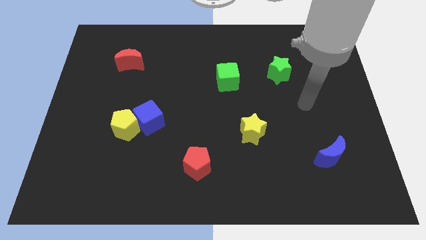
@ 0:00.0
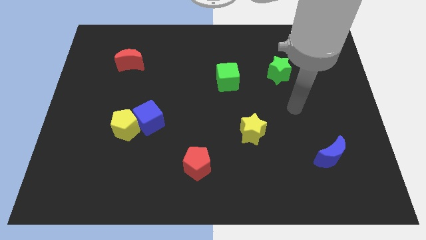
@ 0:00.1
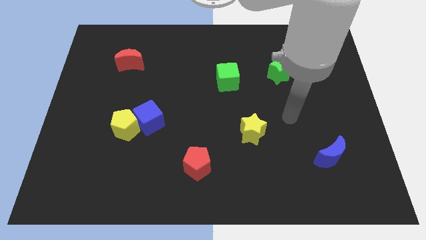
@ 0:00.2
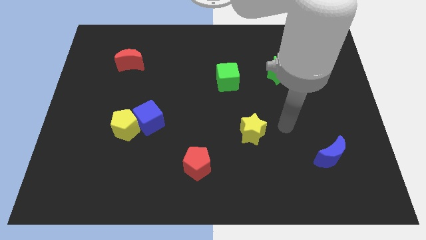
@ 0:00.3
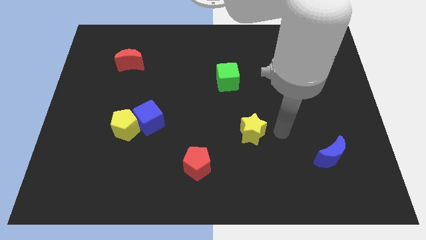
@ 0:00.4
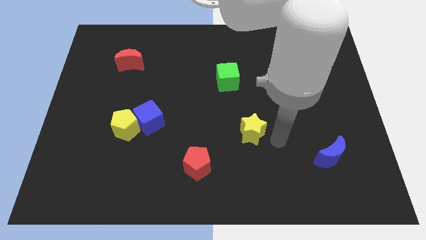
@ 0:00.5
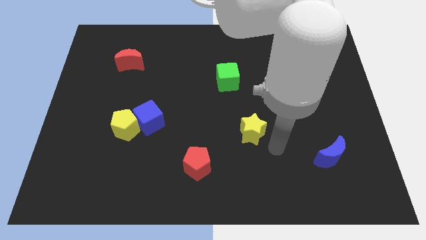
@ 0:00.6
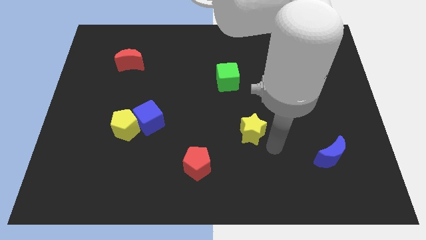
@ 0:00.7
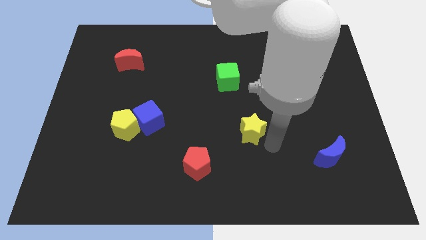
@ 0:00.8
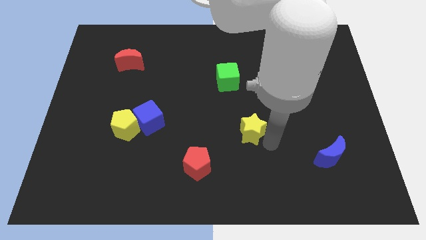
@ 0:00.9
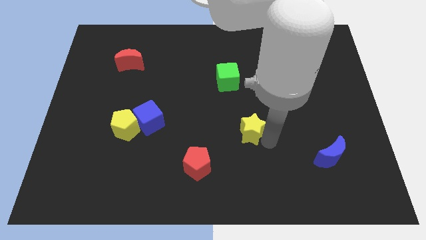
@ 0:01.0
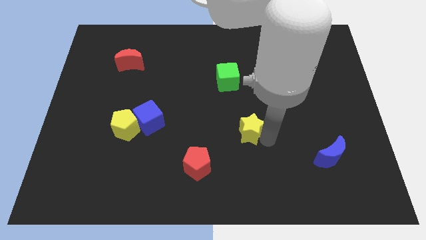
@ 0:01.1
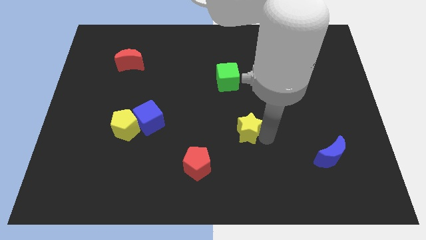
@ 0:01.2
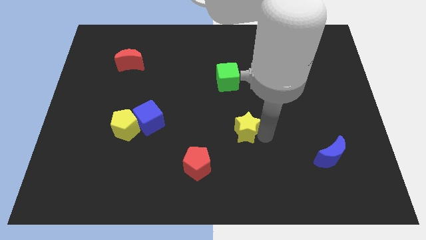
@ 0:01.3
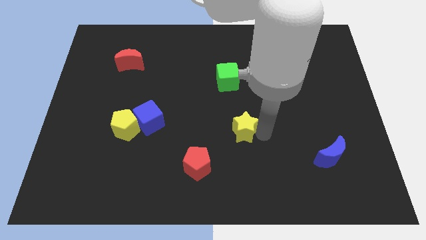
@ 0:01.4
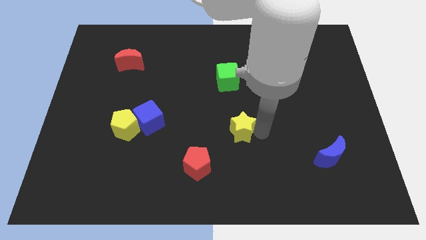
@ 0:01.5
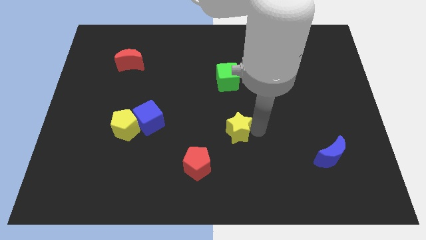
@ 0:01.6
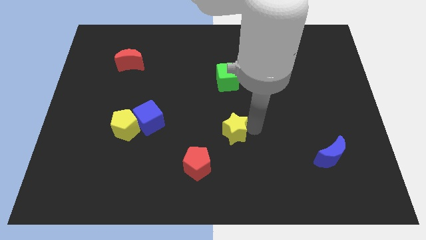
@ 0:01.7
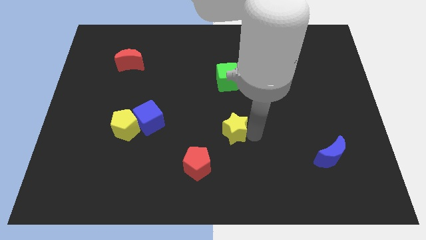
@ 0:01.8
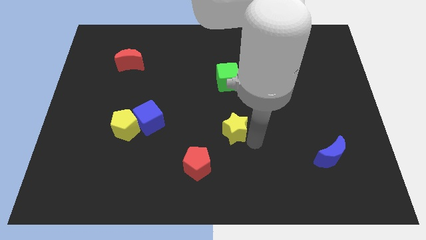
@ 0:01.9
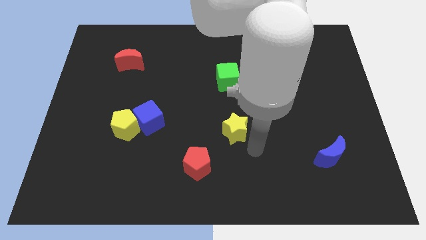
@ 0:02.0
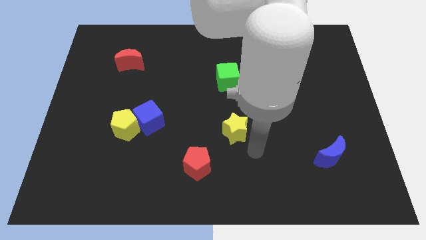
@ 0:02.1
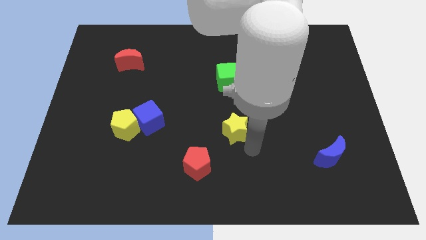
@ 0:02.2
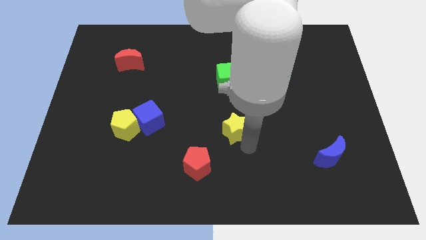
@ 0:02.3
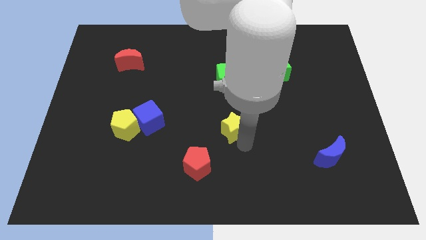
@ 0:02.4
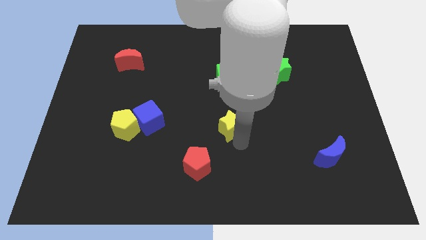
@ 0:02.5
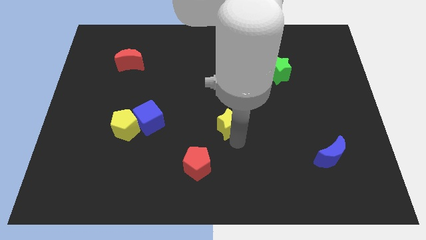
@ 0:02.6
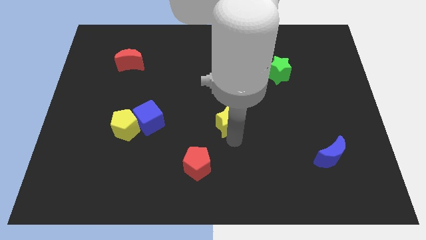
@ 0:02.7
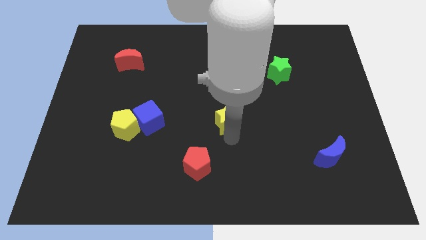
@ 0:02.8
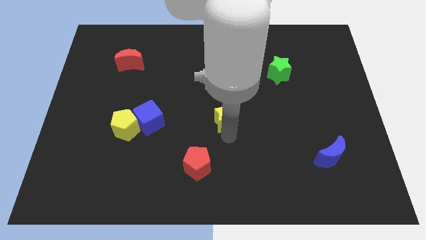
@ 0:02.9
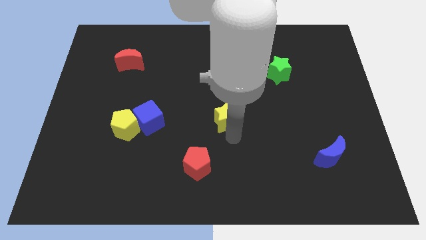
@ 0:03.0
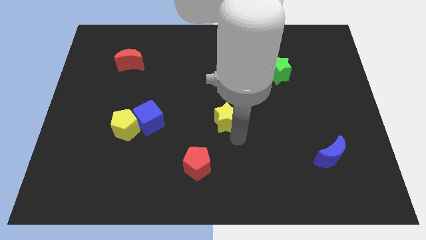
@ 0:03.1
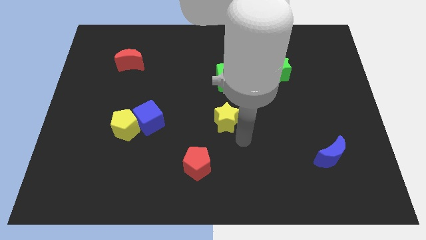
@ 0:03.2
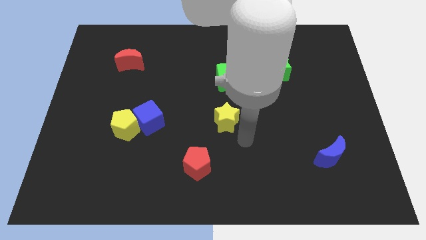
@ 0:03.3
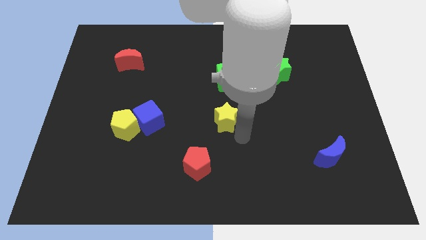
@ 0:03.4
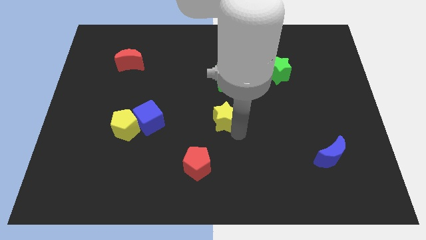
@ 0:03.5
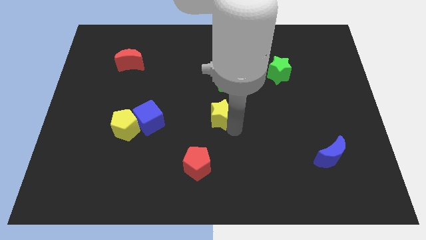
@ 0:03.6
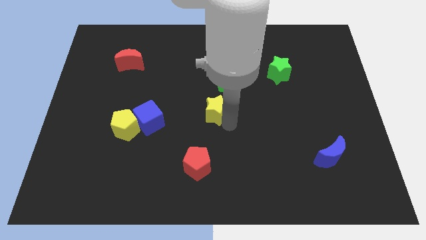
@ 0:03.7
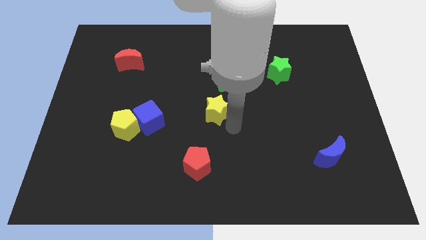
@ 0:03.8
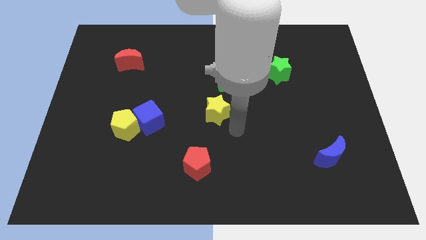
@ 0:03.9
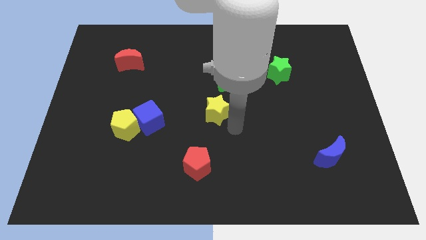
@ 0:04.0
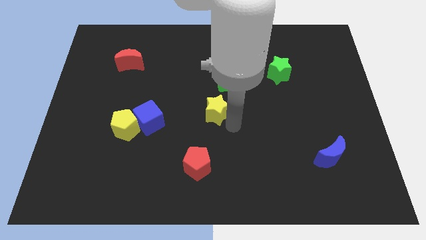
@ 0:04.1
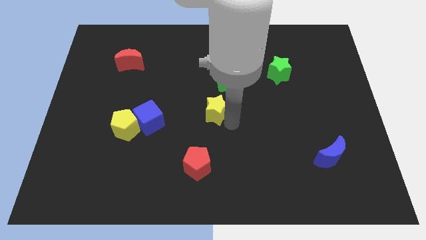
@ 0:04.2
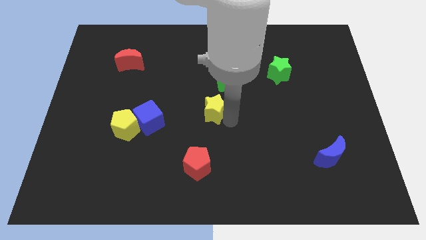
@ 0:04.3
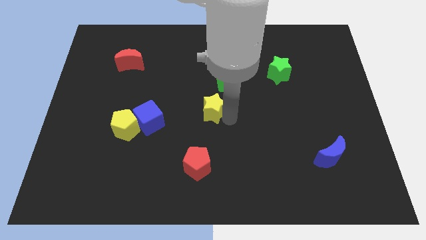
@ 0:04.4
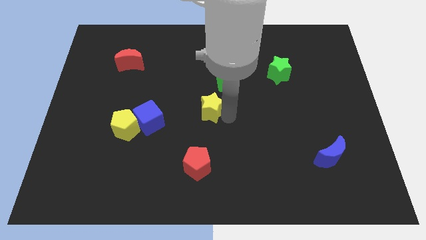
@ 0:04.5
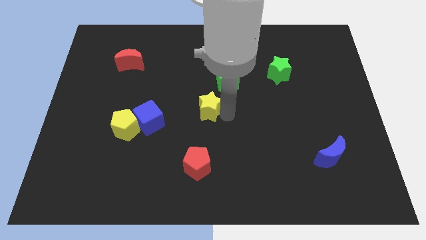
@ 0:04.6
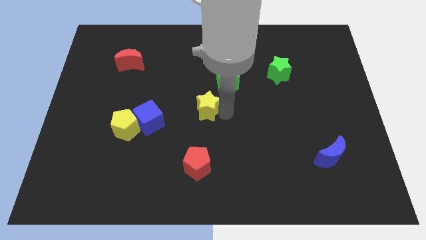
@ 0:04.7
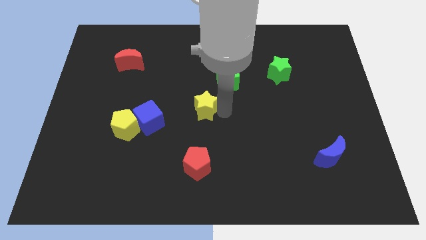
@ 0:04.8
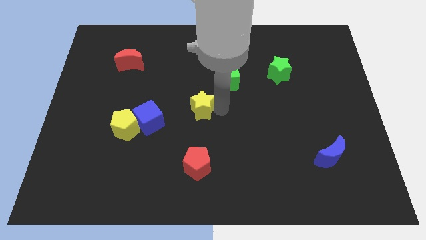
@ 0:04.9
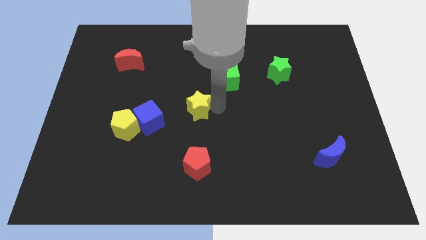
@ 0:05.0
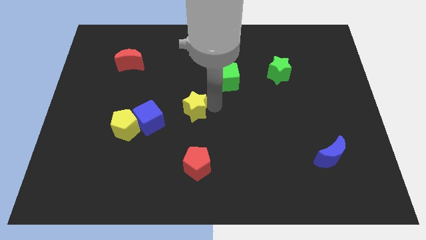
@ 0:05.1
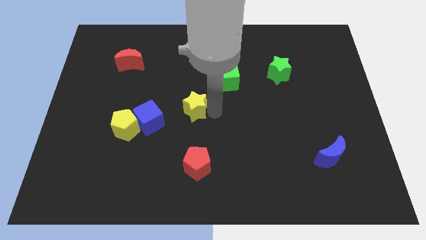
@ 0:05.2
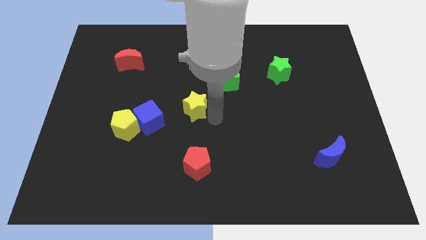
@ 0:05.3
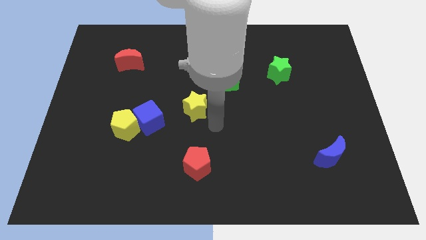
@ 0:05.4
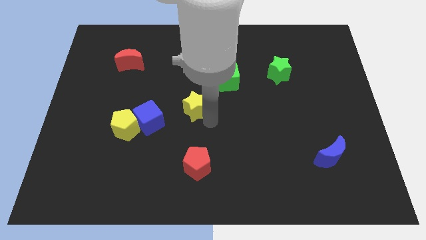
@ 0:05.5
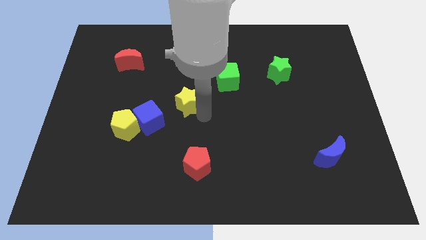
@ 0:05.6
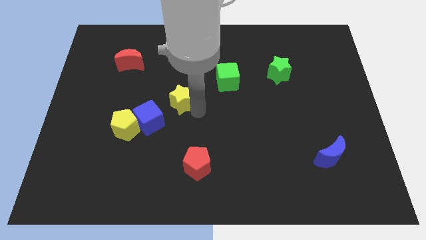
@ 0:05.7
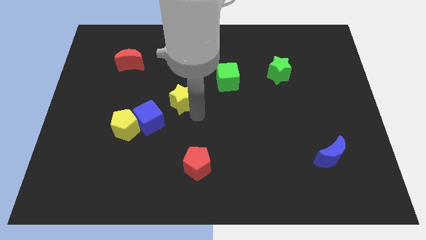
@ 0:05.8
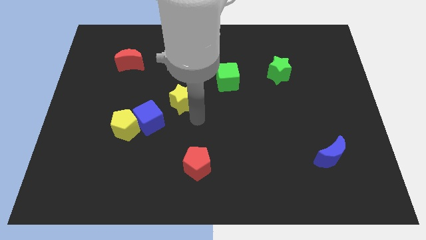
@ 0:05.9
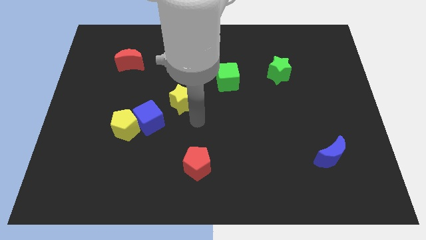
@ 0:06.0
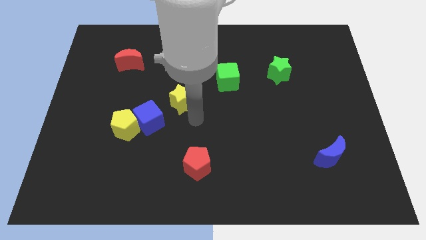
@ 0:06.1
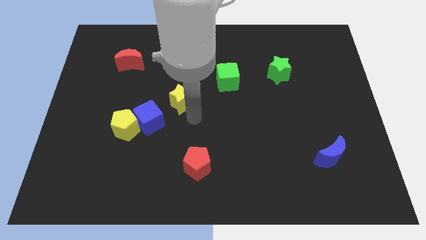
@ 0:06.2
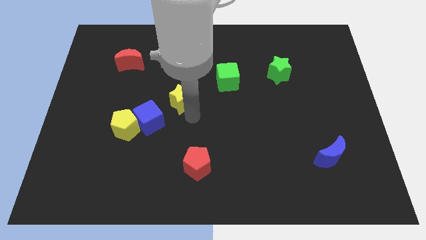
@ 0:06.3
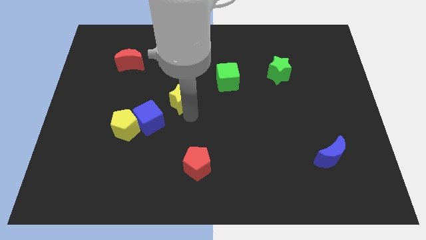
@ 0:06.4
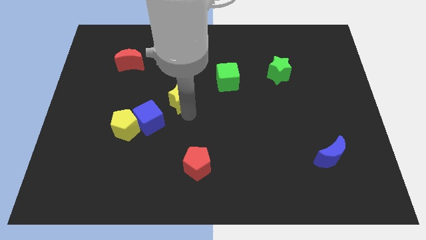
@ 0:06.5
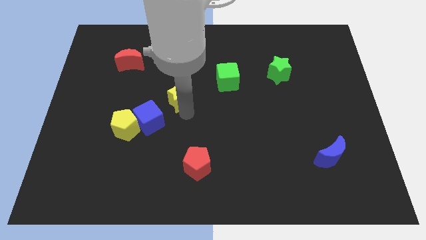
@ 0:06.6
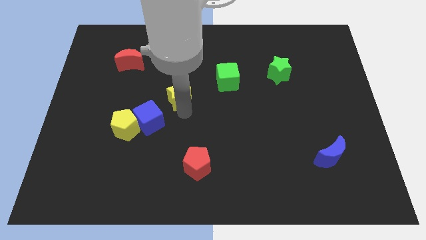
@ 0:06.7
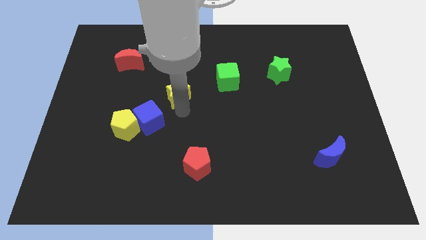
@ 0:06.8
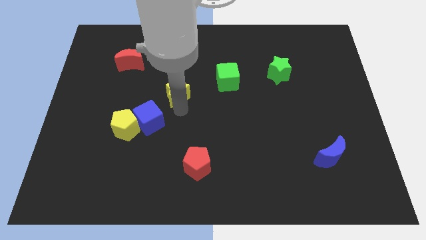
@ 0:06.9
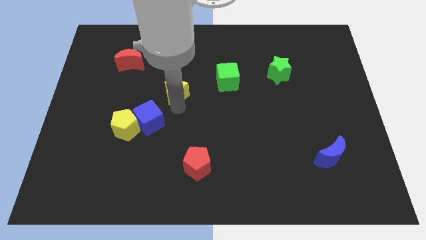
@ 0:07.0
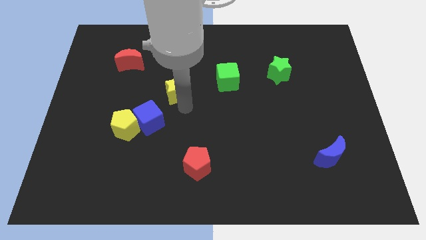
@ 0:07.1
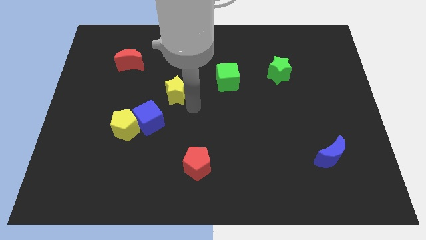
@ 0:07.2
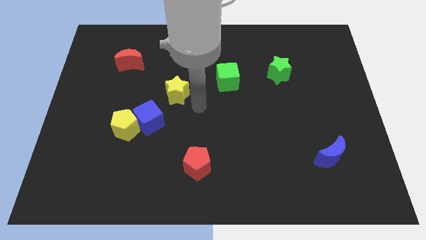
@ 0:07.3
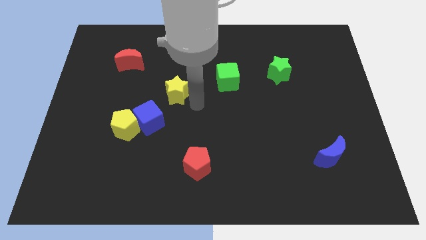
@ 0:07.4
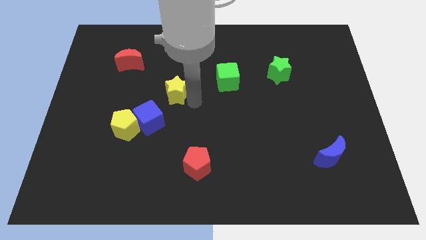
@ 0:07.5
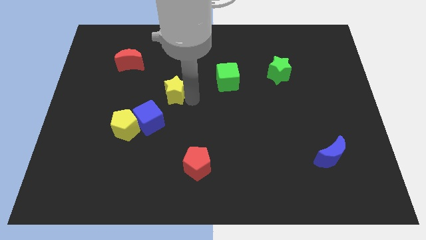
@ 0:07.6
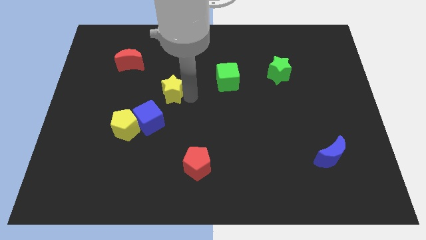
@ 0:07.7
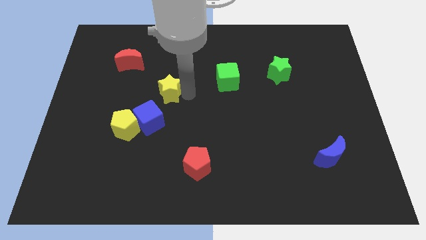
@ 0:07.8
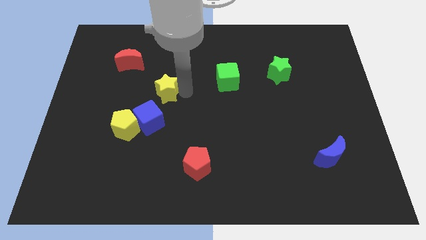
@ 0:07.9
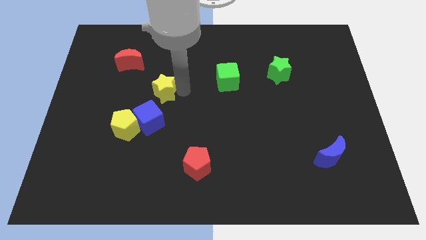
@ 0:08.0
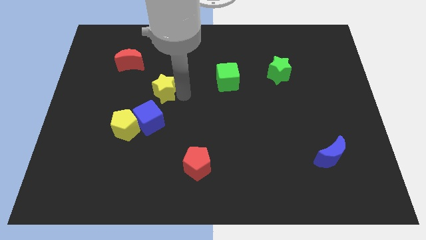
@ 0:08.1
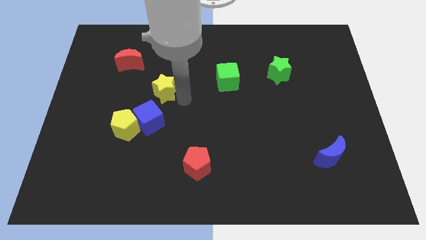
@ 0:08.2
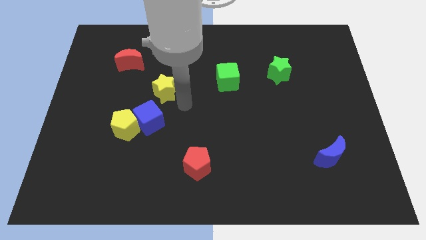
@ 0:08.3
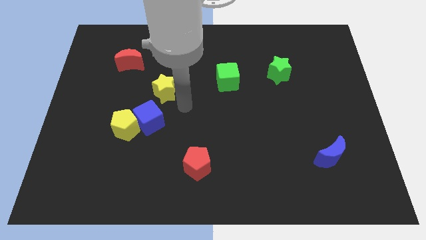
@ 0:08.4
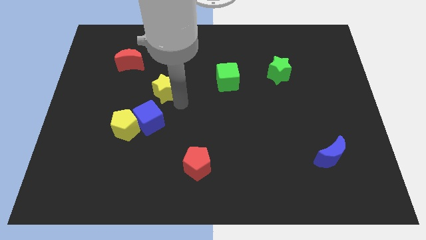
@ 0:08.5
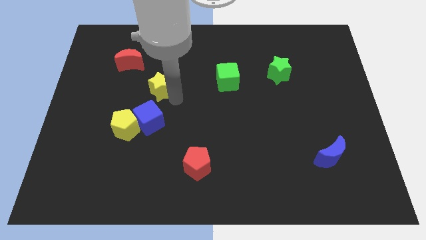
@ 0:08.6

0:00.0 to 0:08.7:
put the yellow star to the bottom right side of the red moon
